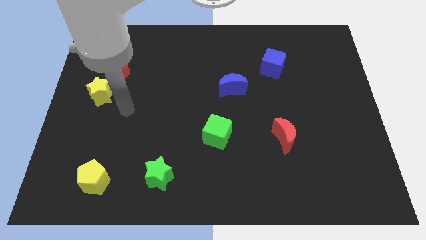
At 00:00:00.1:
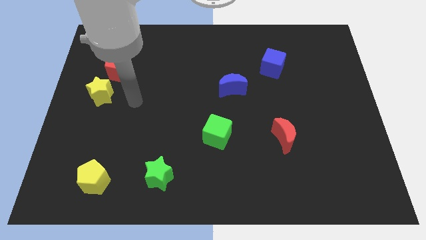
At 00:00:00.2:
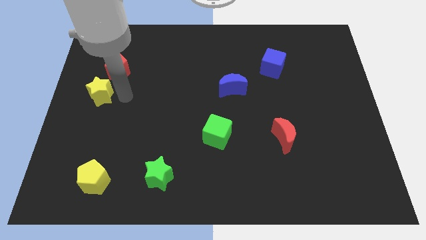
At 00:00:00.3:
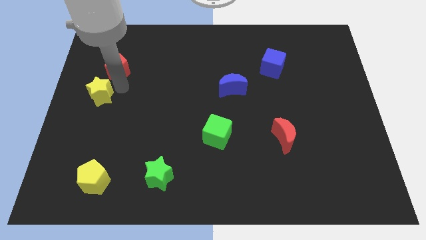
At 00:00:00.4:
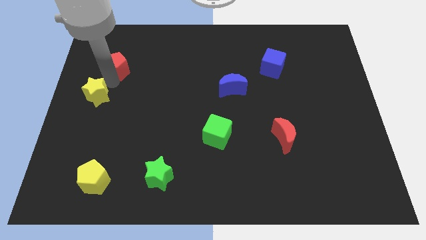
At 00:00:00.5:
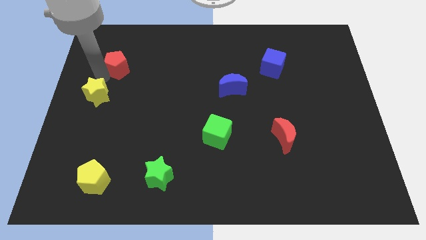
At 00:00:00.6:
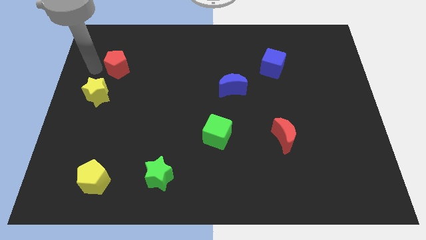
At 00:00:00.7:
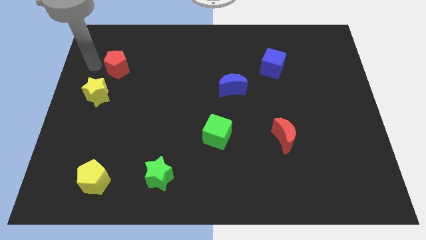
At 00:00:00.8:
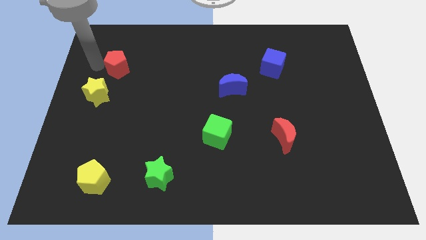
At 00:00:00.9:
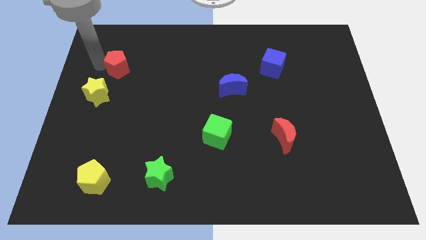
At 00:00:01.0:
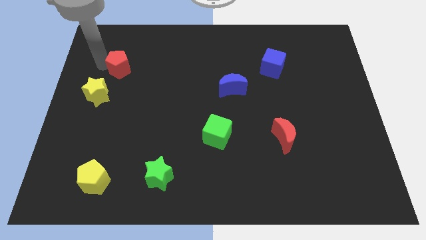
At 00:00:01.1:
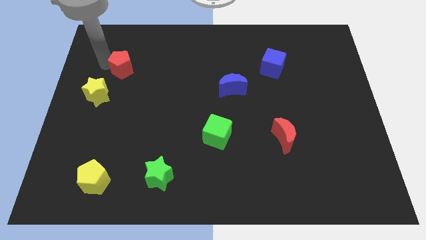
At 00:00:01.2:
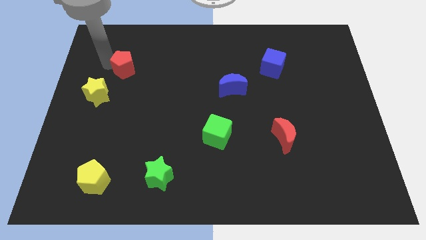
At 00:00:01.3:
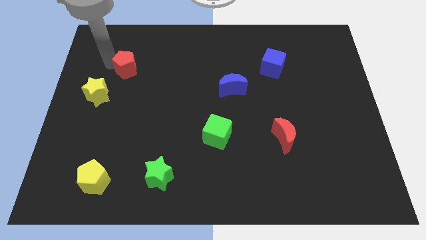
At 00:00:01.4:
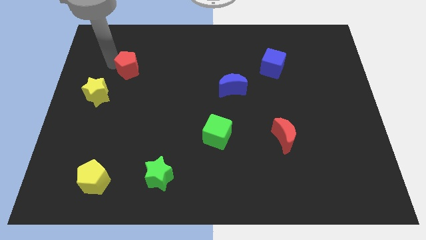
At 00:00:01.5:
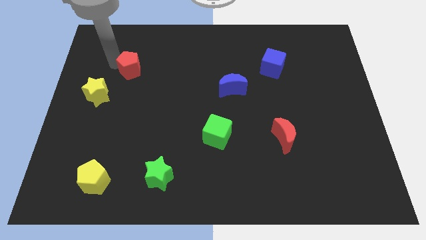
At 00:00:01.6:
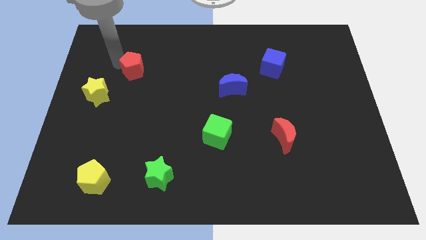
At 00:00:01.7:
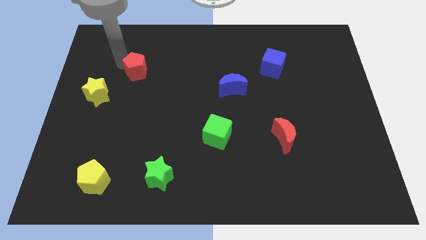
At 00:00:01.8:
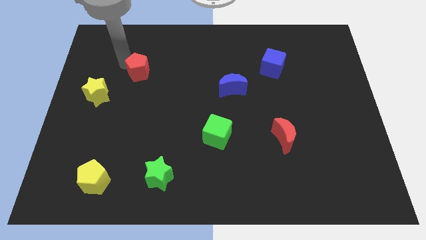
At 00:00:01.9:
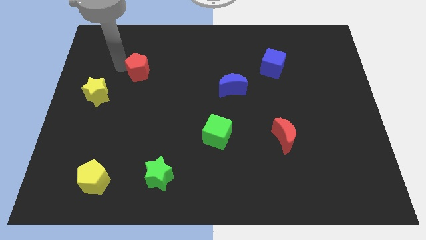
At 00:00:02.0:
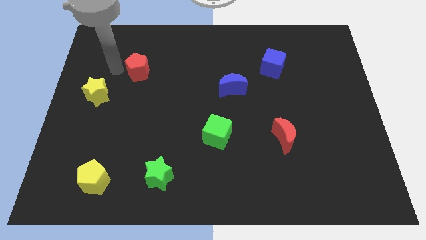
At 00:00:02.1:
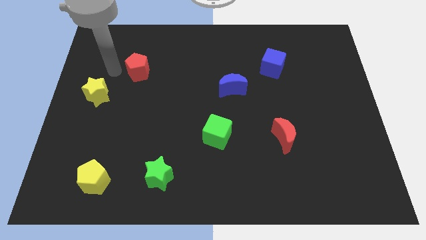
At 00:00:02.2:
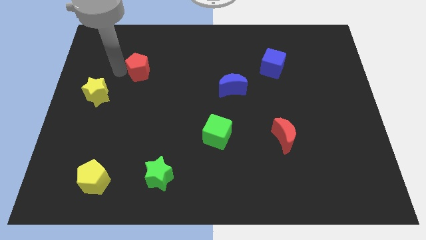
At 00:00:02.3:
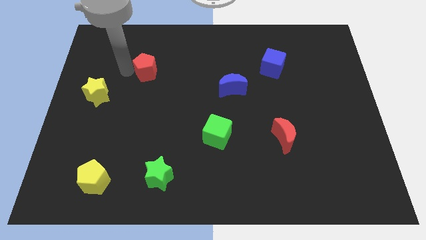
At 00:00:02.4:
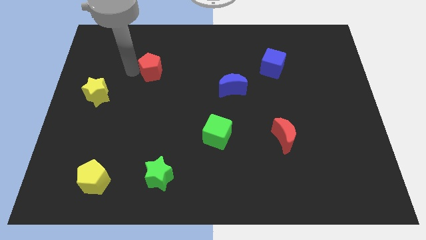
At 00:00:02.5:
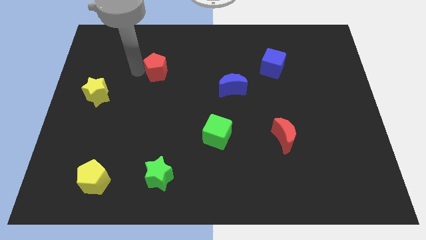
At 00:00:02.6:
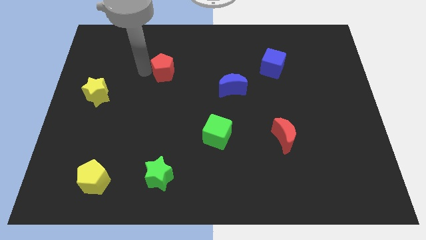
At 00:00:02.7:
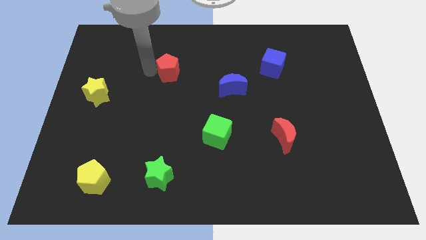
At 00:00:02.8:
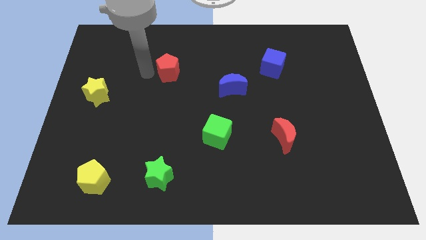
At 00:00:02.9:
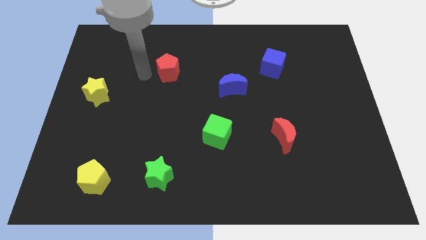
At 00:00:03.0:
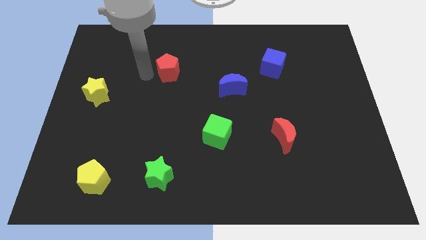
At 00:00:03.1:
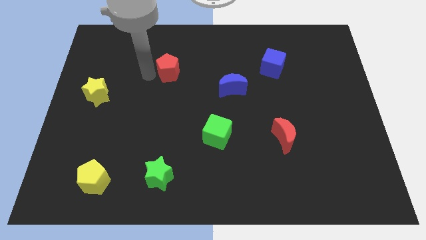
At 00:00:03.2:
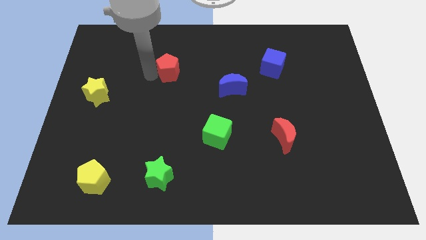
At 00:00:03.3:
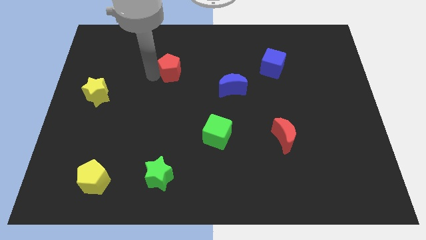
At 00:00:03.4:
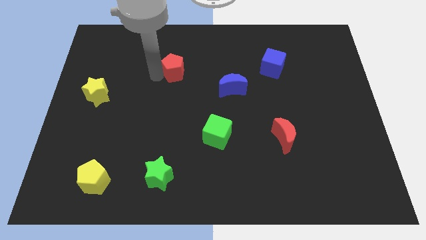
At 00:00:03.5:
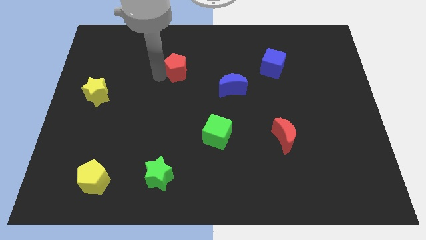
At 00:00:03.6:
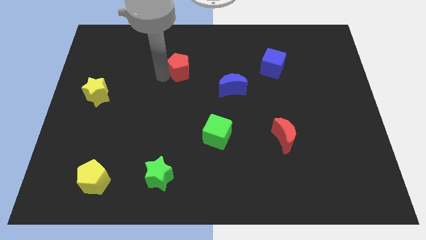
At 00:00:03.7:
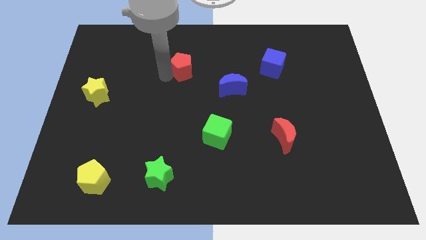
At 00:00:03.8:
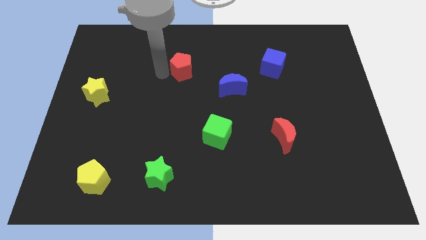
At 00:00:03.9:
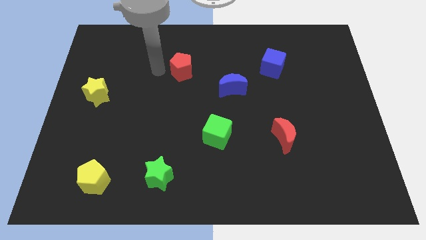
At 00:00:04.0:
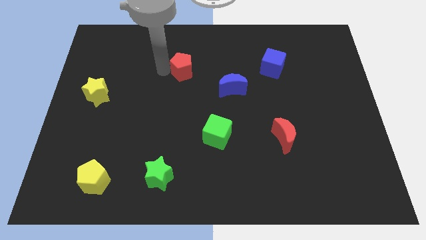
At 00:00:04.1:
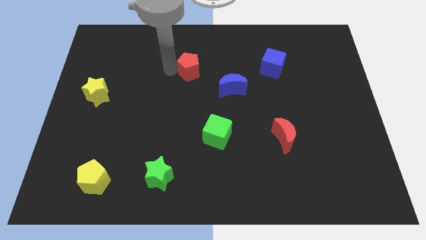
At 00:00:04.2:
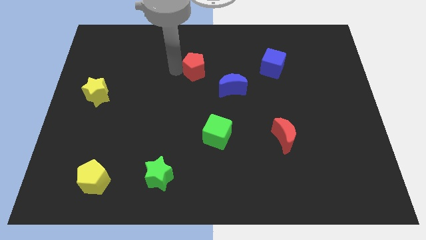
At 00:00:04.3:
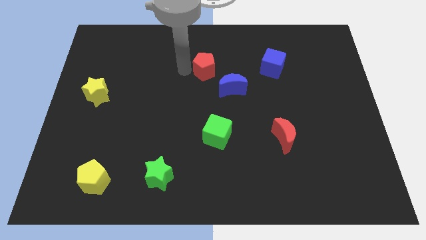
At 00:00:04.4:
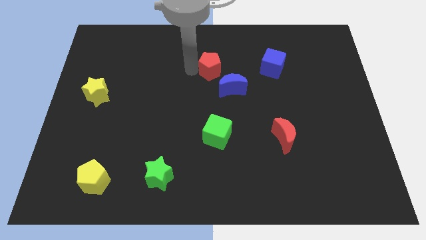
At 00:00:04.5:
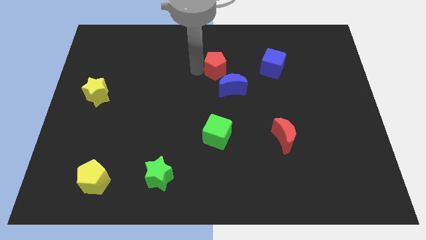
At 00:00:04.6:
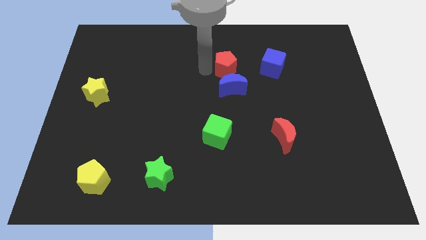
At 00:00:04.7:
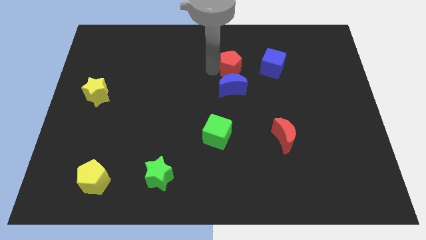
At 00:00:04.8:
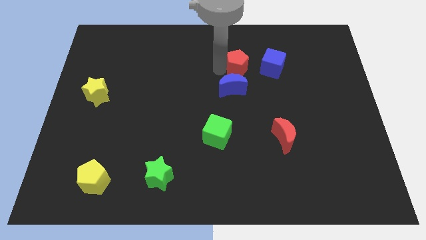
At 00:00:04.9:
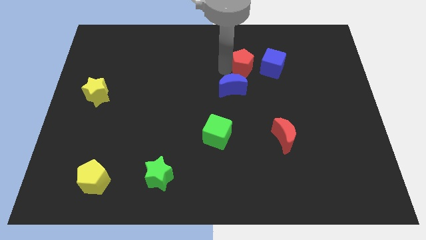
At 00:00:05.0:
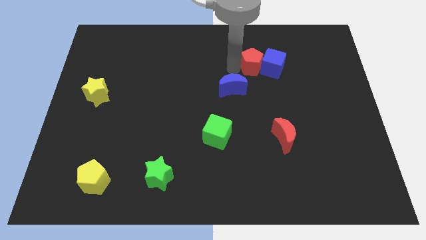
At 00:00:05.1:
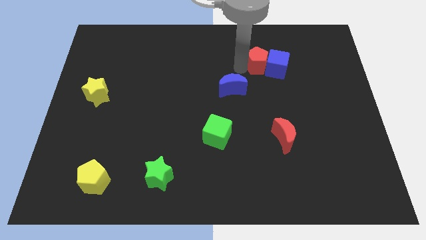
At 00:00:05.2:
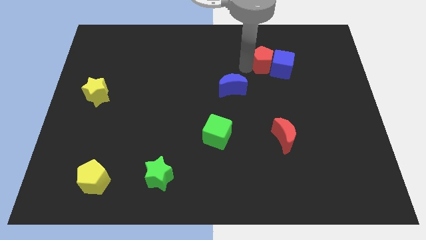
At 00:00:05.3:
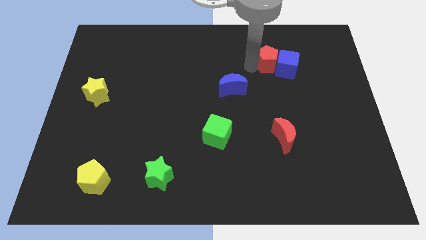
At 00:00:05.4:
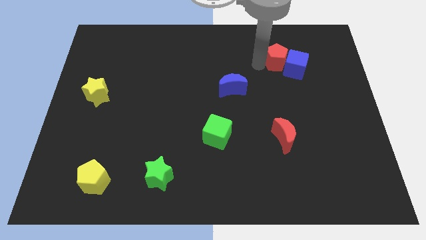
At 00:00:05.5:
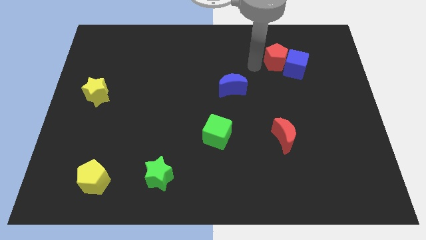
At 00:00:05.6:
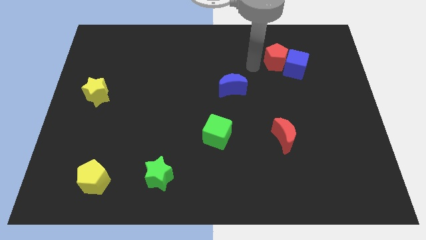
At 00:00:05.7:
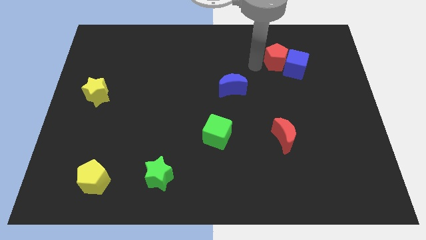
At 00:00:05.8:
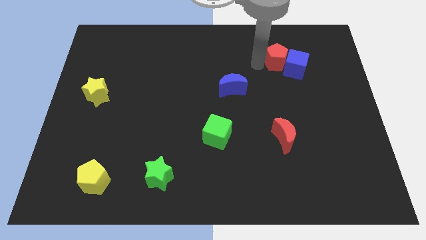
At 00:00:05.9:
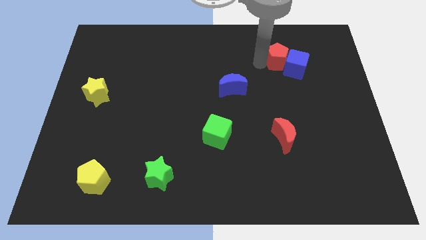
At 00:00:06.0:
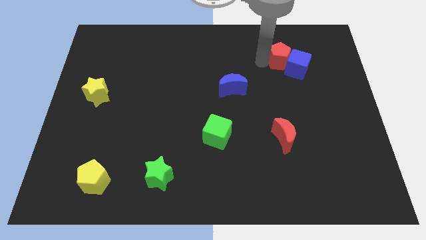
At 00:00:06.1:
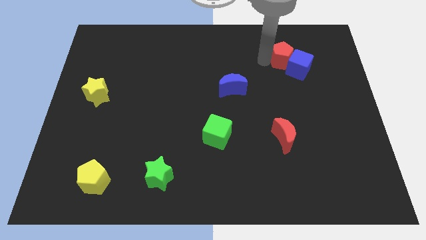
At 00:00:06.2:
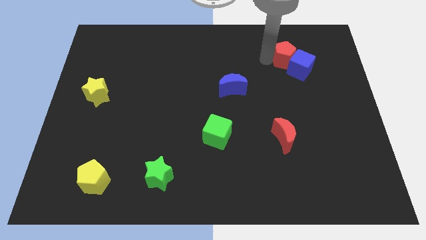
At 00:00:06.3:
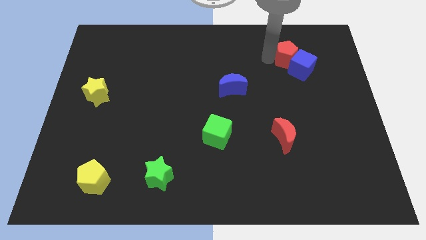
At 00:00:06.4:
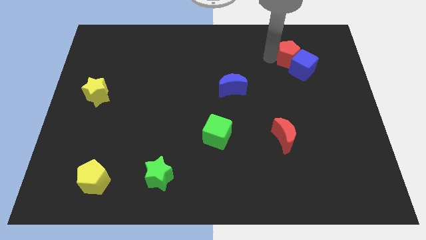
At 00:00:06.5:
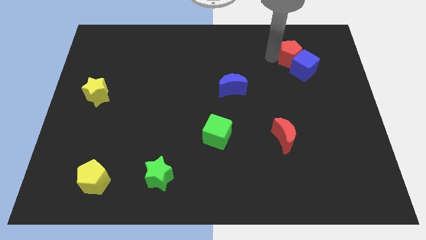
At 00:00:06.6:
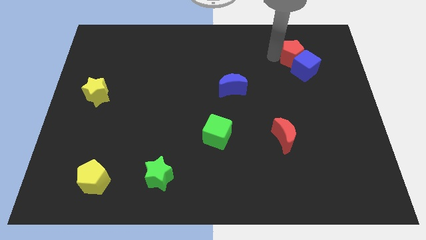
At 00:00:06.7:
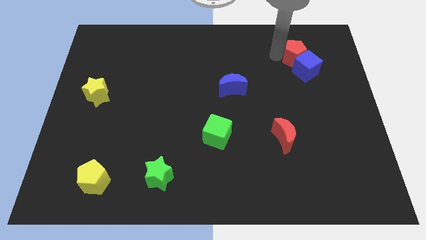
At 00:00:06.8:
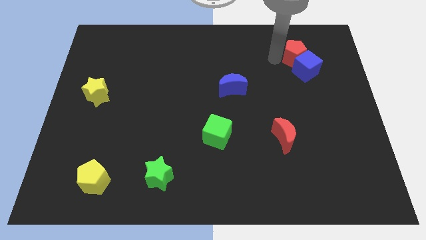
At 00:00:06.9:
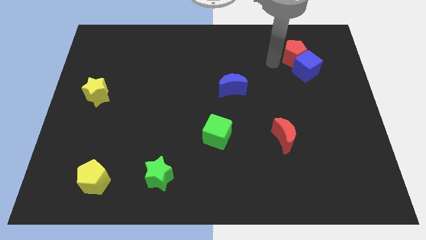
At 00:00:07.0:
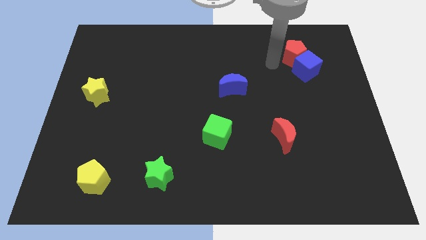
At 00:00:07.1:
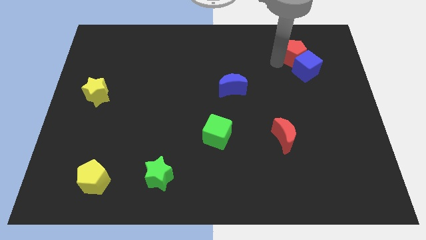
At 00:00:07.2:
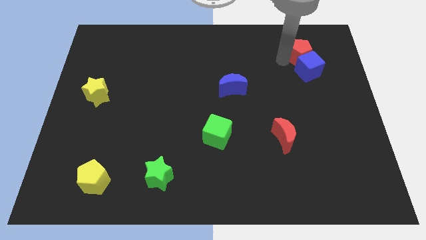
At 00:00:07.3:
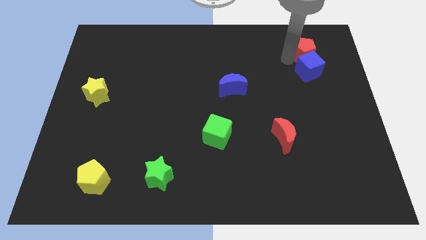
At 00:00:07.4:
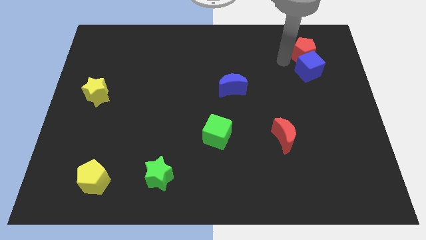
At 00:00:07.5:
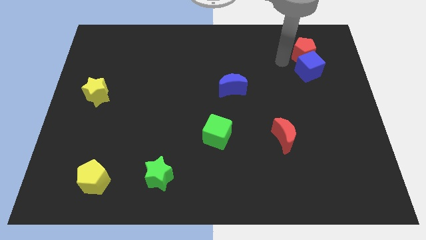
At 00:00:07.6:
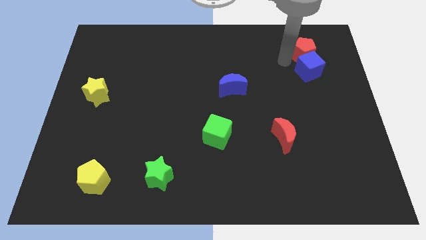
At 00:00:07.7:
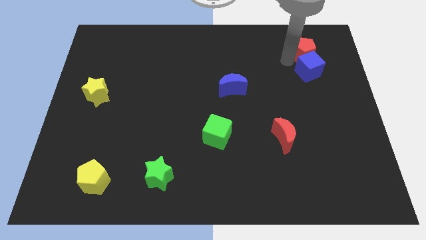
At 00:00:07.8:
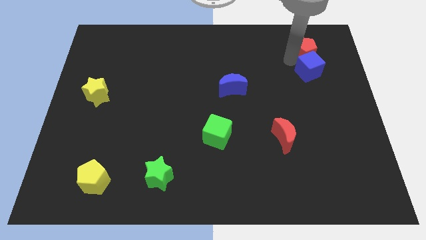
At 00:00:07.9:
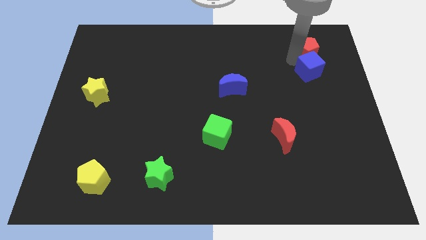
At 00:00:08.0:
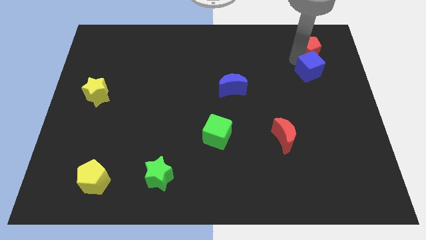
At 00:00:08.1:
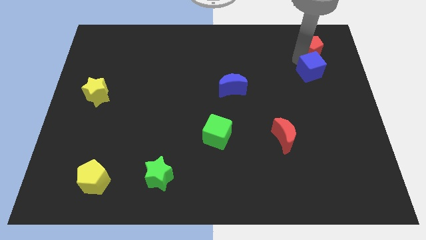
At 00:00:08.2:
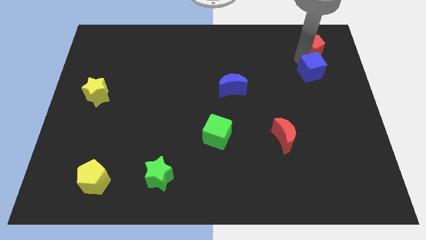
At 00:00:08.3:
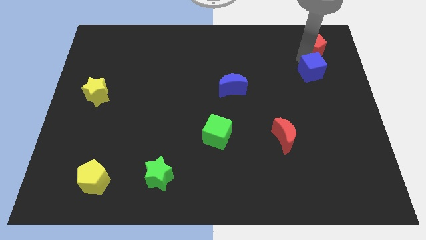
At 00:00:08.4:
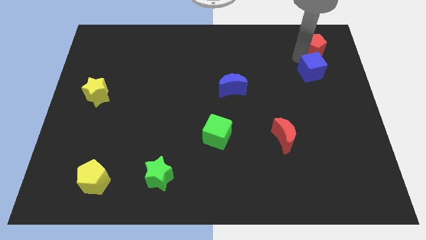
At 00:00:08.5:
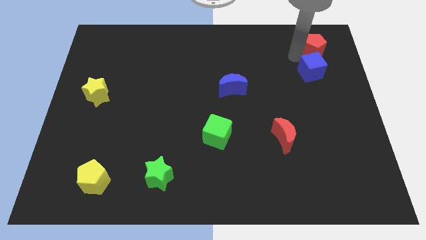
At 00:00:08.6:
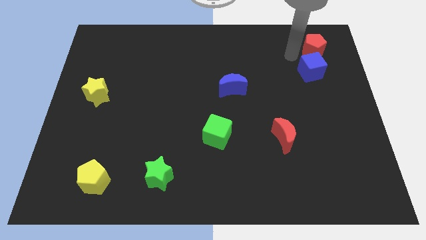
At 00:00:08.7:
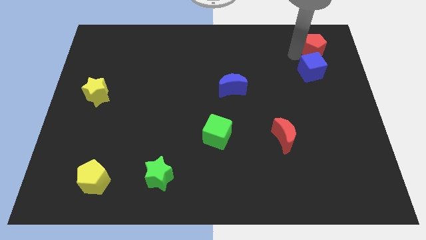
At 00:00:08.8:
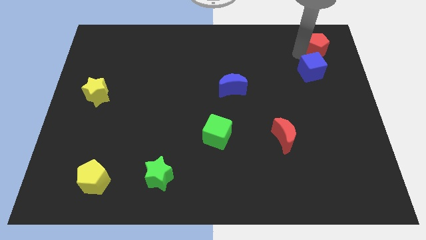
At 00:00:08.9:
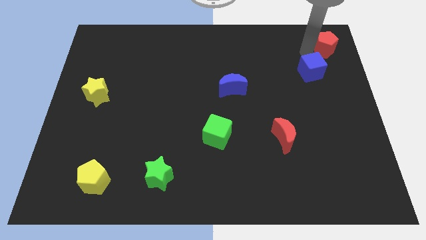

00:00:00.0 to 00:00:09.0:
put the red pentagon to the top right corner
